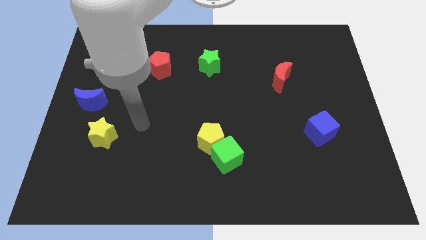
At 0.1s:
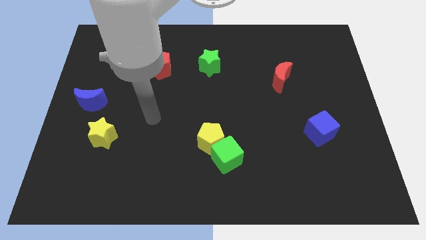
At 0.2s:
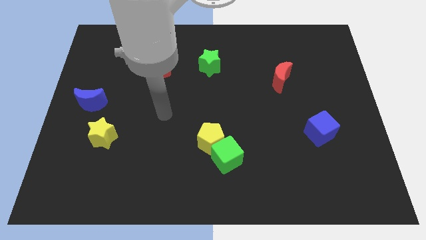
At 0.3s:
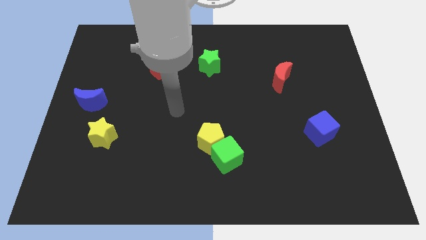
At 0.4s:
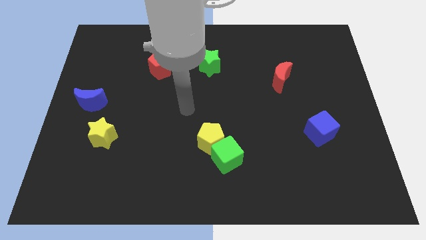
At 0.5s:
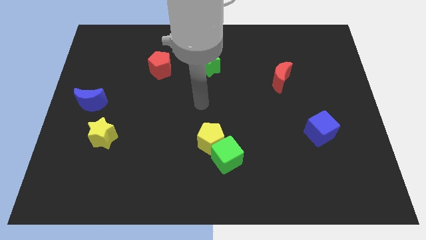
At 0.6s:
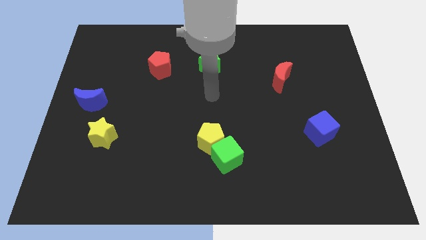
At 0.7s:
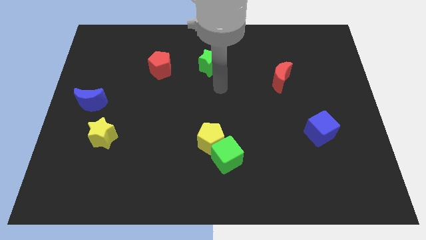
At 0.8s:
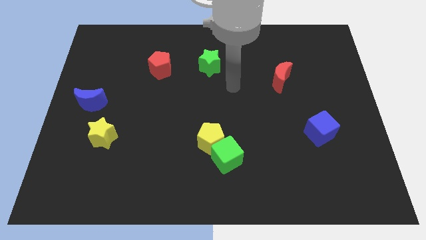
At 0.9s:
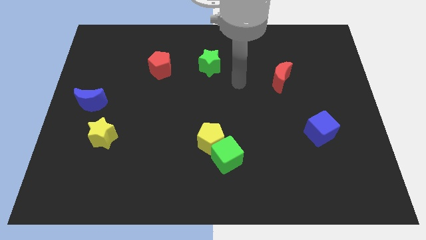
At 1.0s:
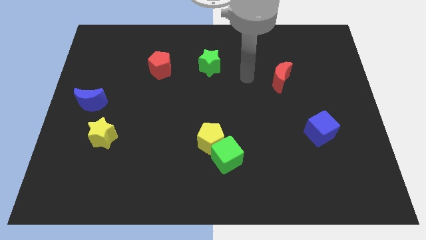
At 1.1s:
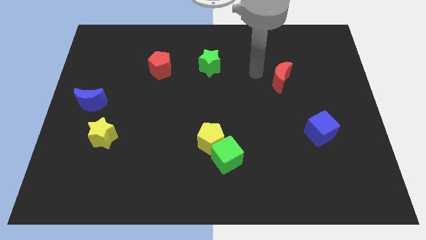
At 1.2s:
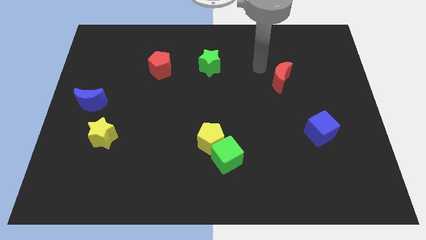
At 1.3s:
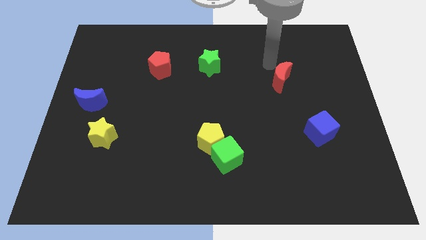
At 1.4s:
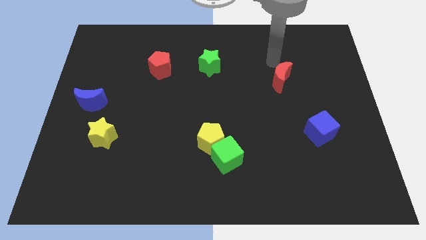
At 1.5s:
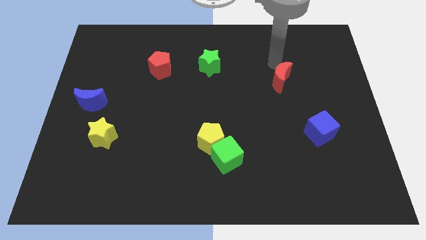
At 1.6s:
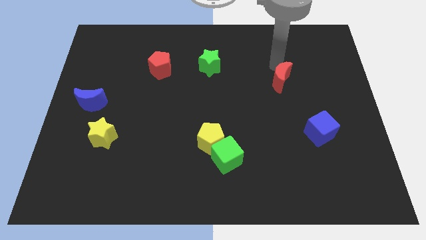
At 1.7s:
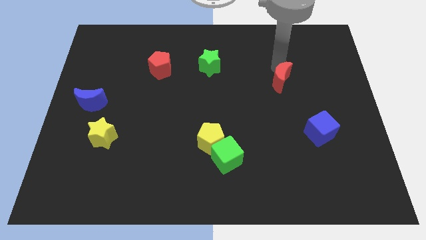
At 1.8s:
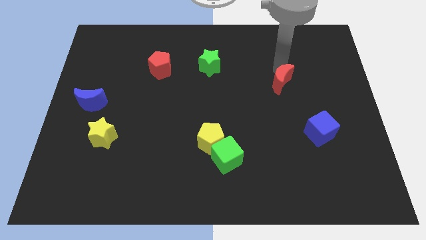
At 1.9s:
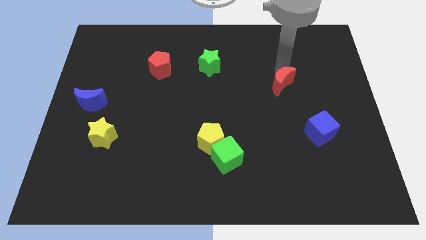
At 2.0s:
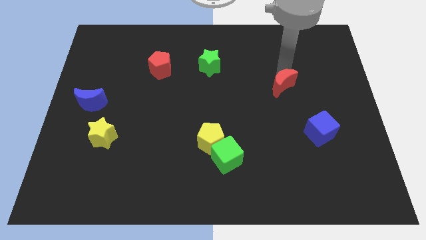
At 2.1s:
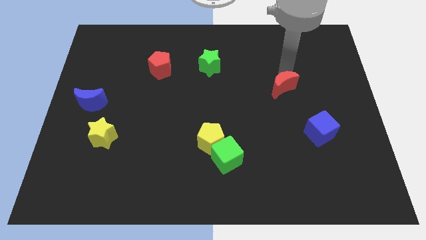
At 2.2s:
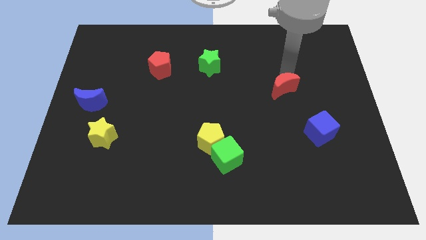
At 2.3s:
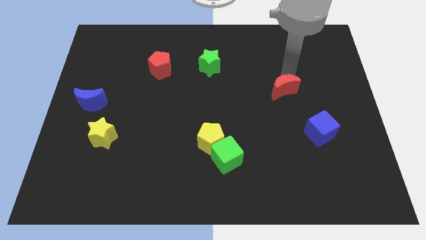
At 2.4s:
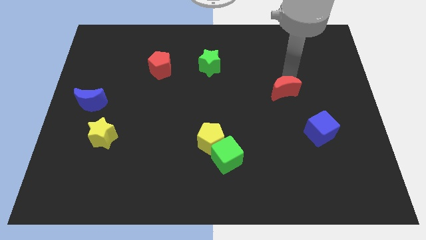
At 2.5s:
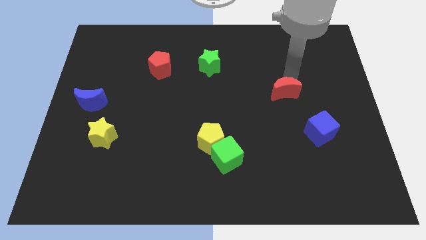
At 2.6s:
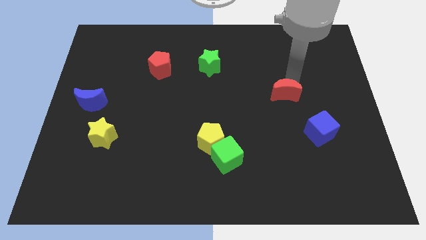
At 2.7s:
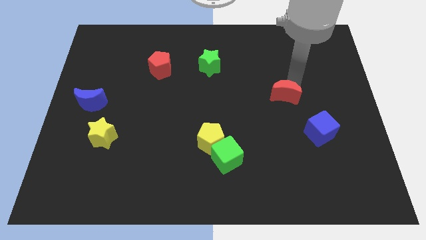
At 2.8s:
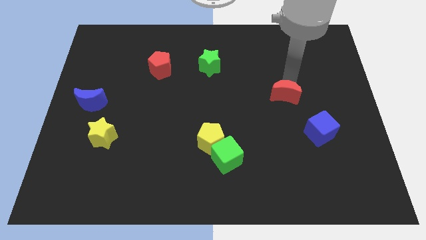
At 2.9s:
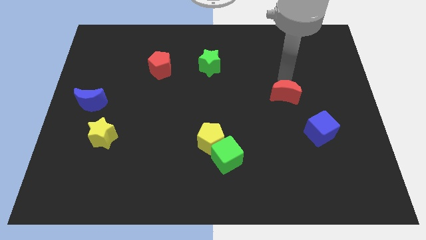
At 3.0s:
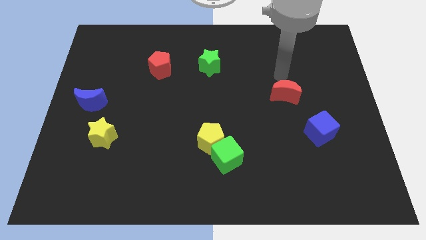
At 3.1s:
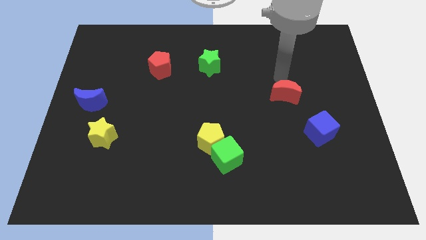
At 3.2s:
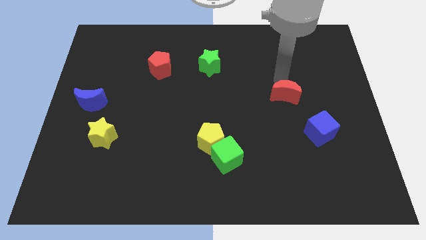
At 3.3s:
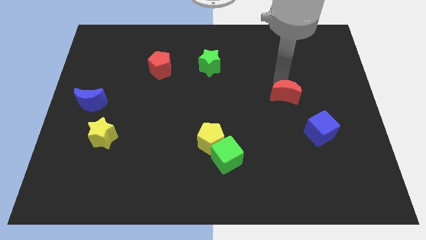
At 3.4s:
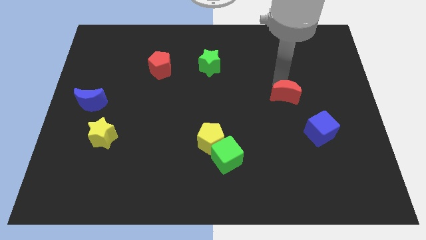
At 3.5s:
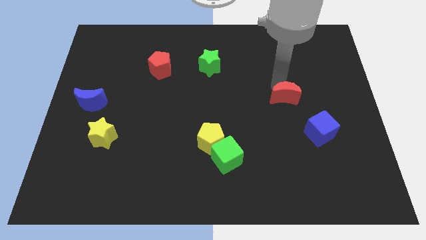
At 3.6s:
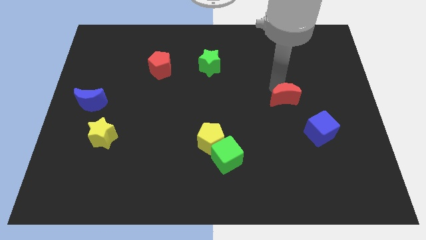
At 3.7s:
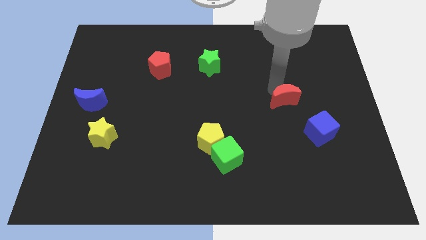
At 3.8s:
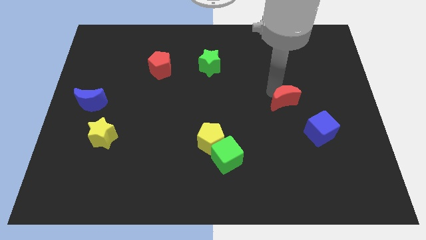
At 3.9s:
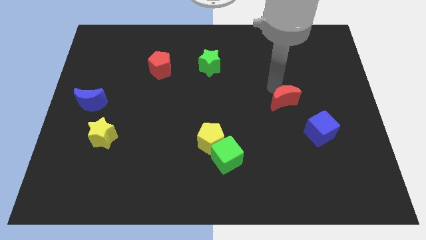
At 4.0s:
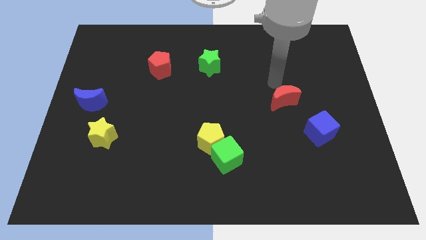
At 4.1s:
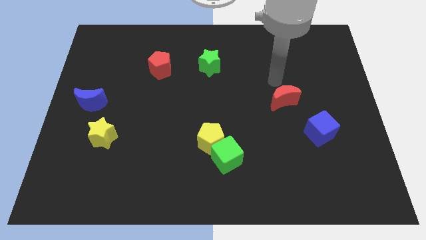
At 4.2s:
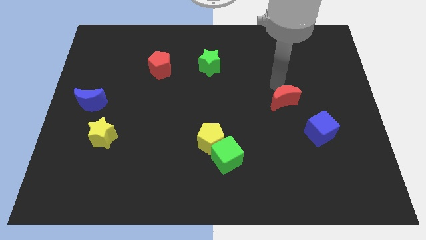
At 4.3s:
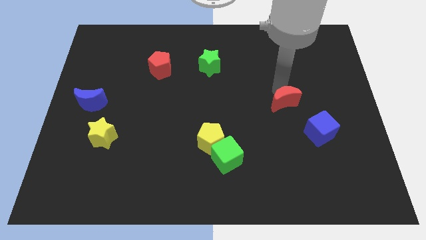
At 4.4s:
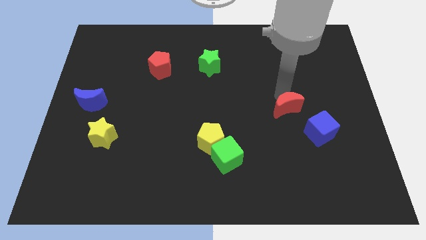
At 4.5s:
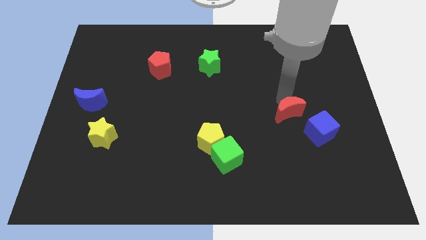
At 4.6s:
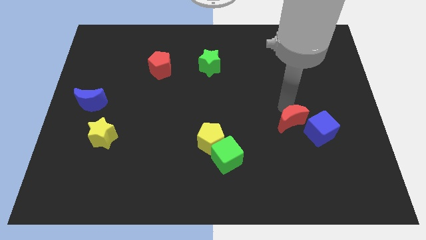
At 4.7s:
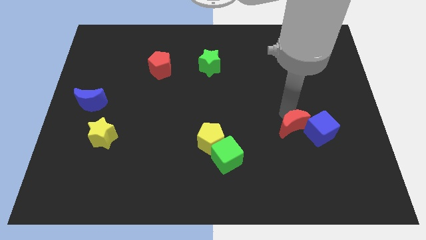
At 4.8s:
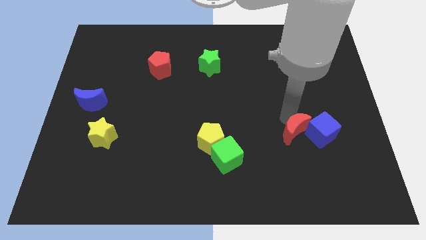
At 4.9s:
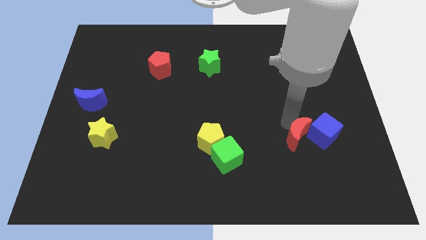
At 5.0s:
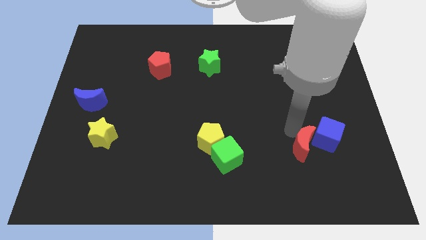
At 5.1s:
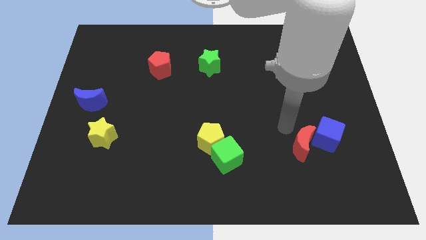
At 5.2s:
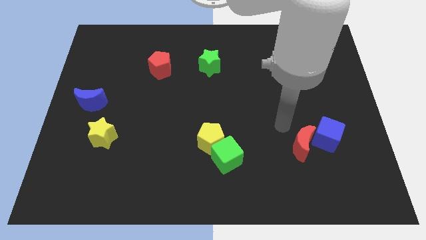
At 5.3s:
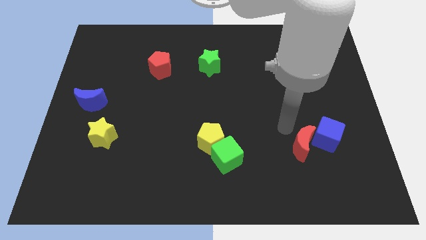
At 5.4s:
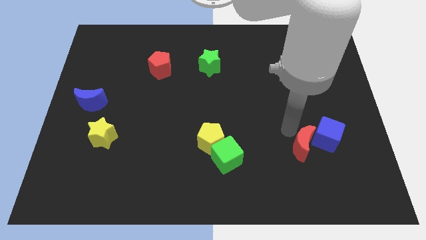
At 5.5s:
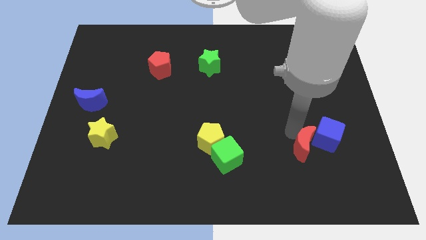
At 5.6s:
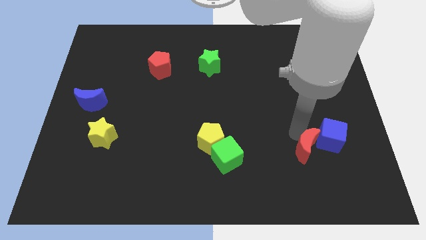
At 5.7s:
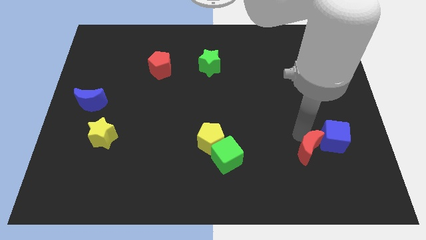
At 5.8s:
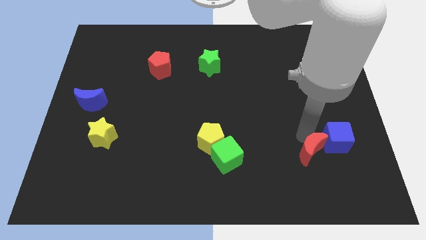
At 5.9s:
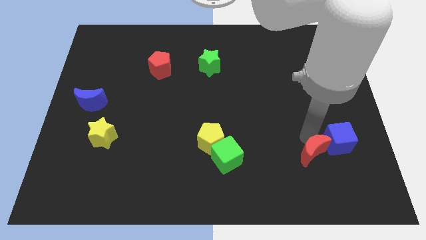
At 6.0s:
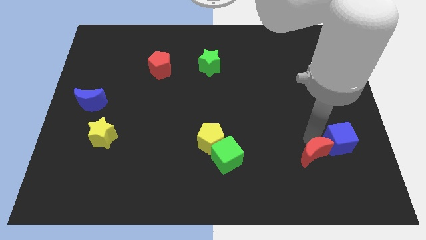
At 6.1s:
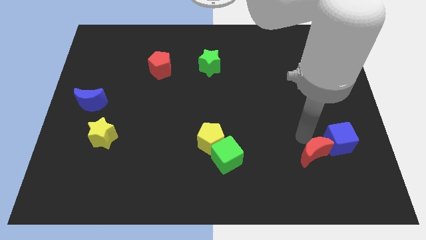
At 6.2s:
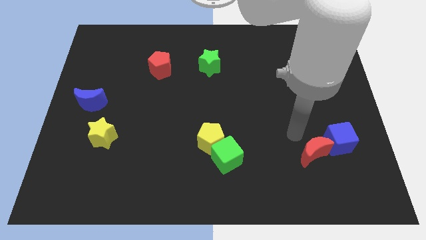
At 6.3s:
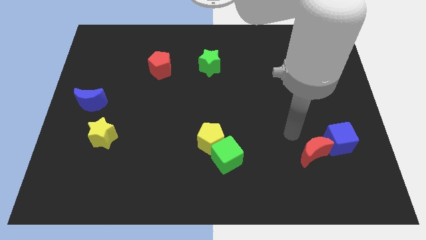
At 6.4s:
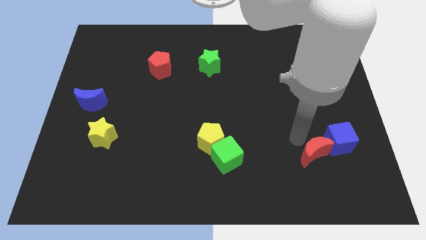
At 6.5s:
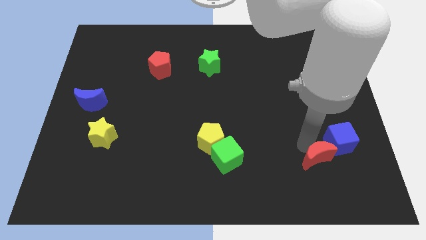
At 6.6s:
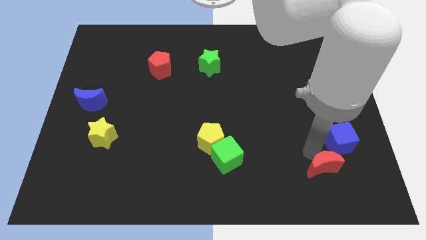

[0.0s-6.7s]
move the red moon to the bottom of the blue cube
